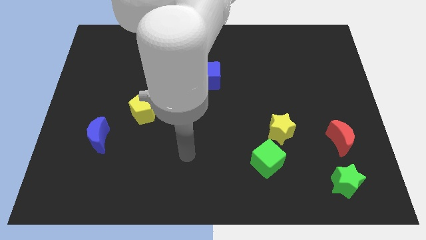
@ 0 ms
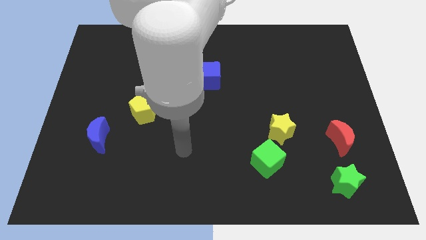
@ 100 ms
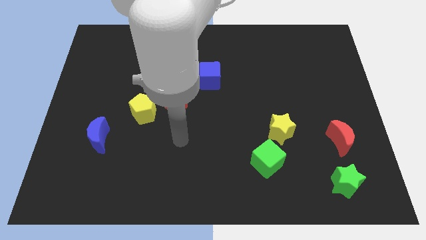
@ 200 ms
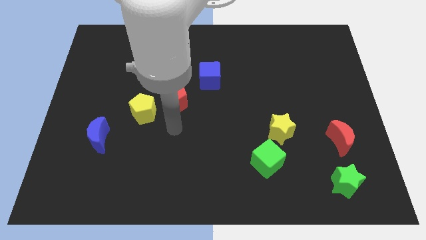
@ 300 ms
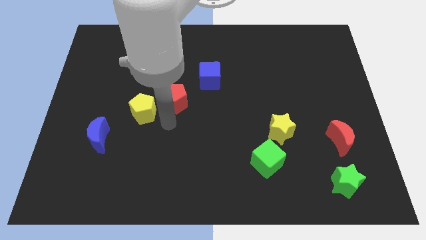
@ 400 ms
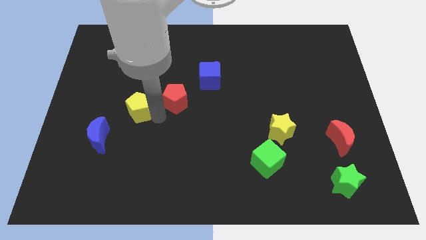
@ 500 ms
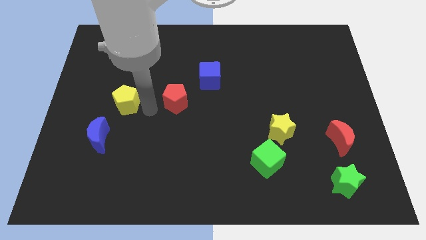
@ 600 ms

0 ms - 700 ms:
separate the red pentagon from the yellow pentagon

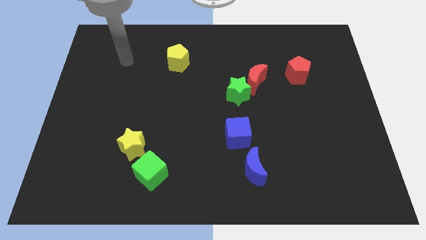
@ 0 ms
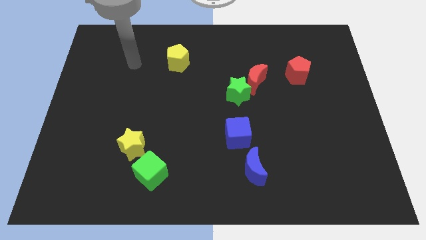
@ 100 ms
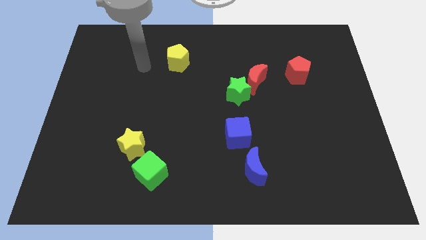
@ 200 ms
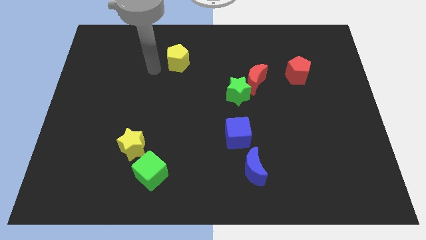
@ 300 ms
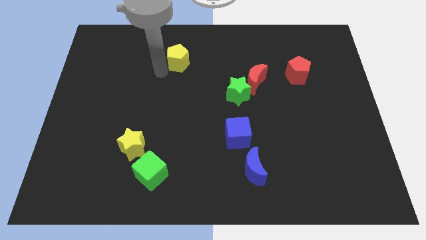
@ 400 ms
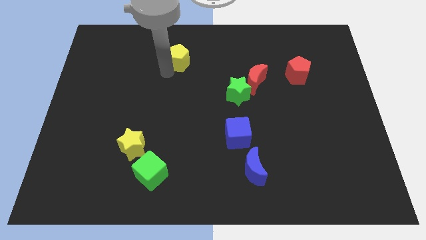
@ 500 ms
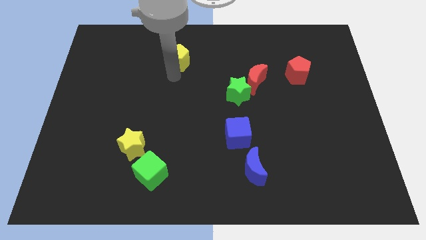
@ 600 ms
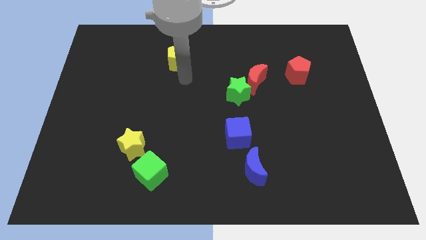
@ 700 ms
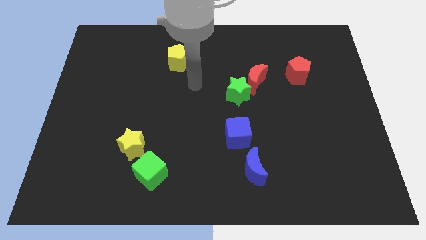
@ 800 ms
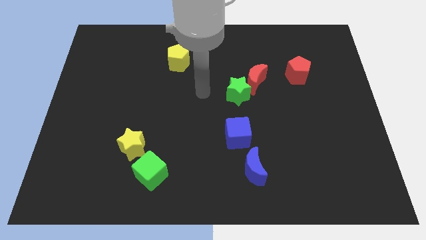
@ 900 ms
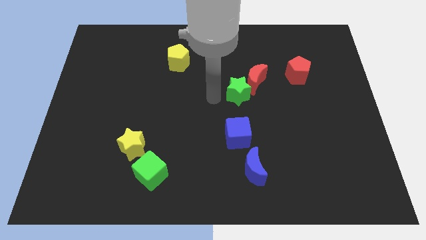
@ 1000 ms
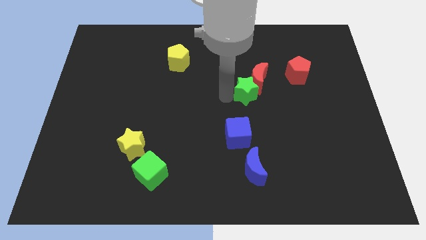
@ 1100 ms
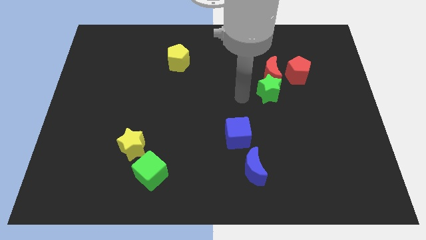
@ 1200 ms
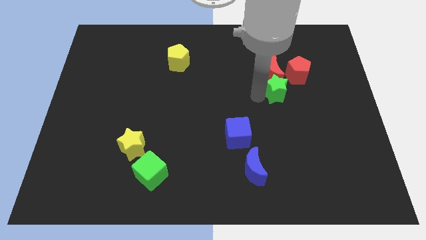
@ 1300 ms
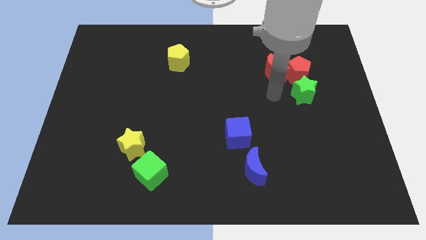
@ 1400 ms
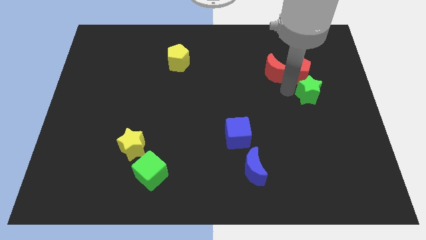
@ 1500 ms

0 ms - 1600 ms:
pull the red moon apart from the green star

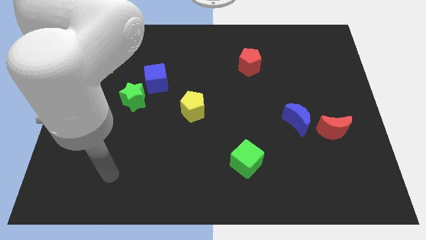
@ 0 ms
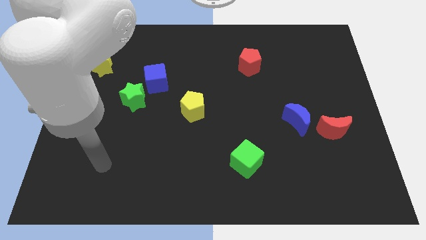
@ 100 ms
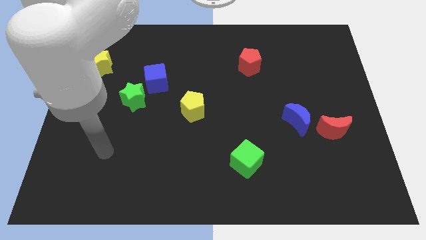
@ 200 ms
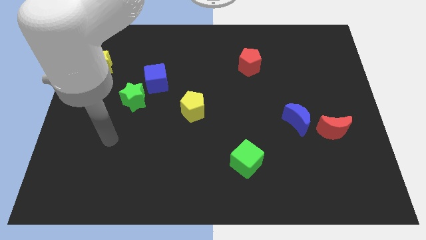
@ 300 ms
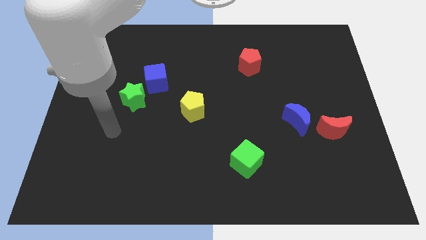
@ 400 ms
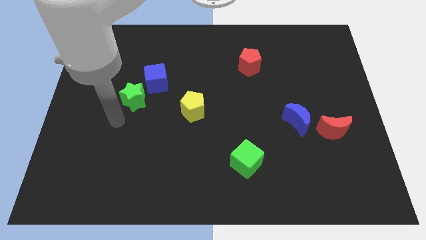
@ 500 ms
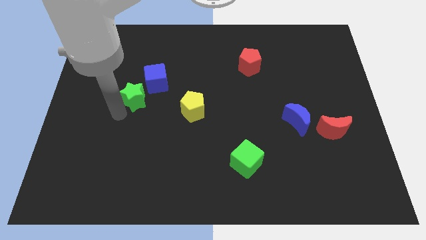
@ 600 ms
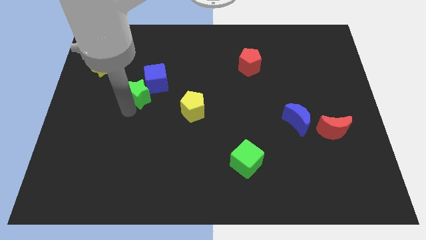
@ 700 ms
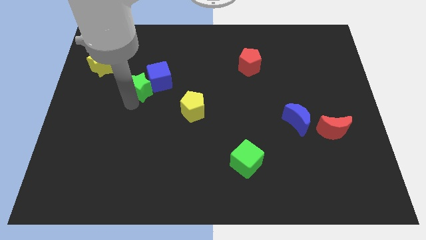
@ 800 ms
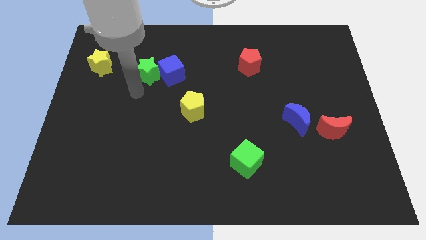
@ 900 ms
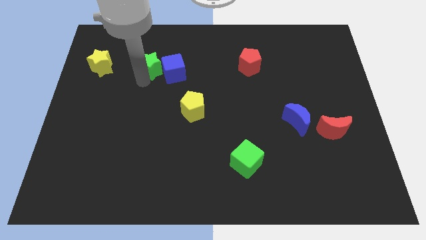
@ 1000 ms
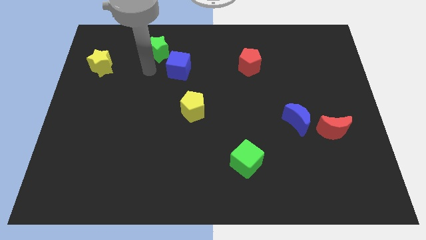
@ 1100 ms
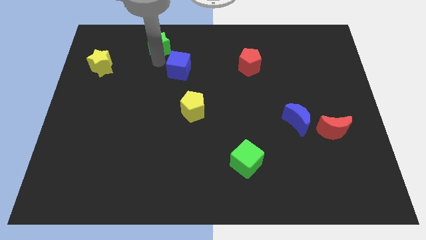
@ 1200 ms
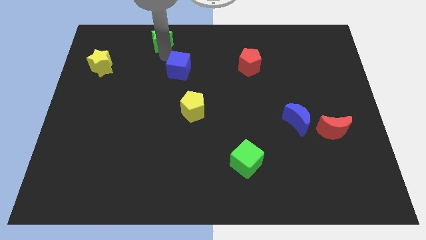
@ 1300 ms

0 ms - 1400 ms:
pull the blue cube apart from the green star

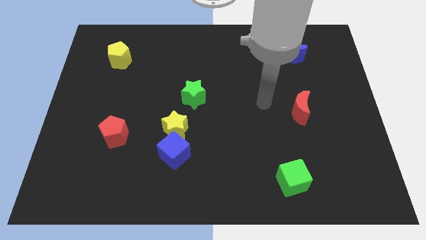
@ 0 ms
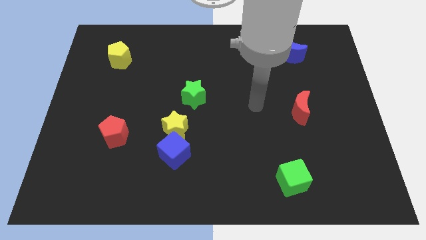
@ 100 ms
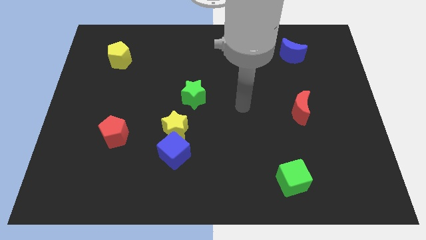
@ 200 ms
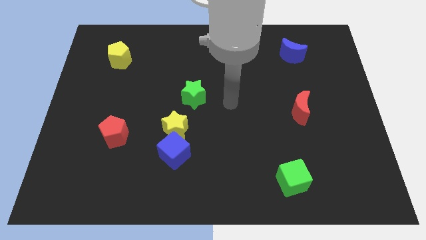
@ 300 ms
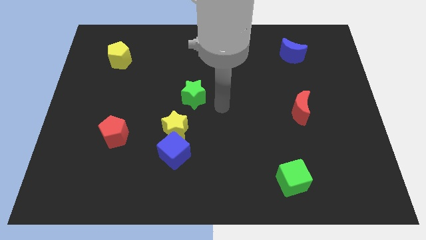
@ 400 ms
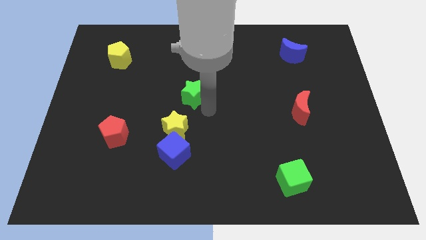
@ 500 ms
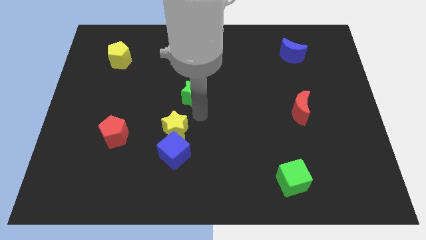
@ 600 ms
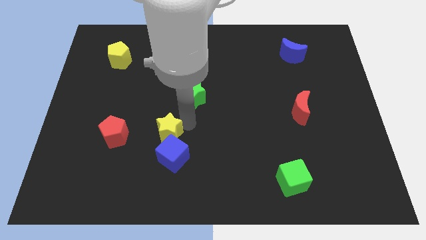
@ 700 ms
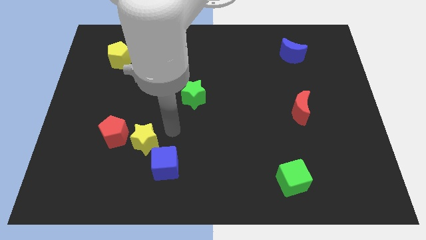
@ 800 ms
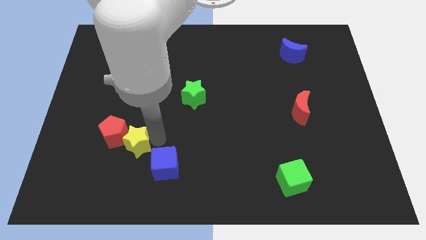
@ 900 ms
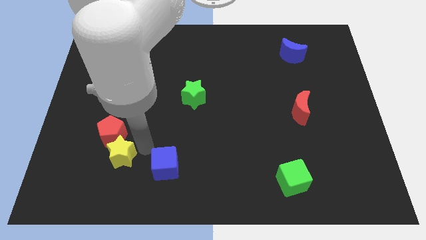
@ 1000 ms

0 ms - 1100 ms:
separate the blue cube from the yellow star

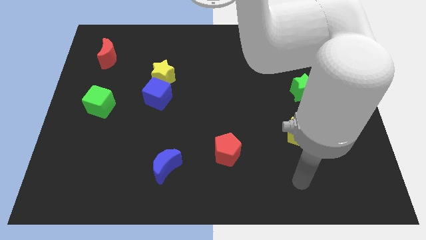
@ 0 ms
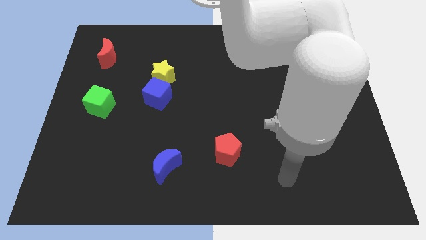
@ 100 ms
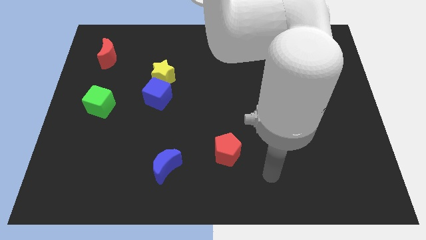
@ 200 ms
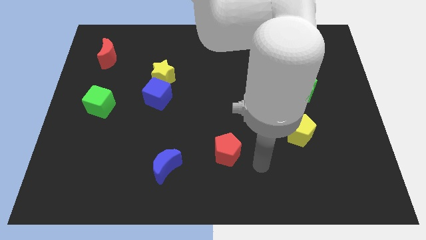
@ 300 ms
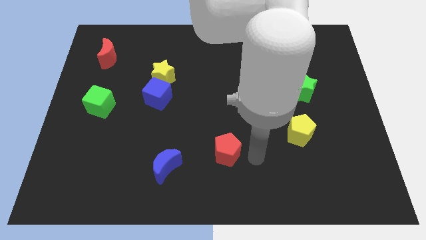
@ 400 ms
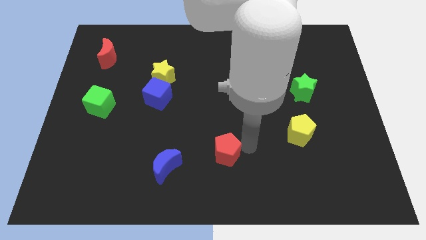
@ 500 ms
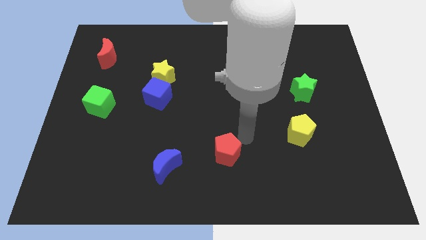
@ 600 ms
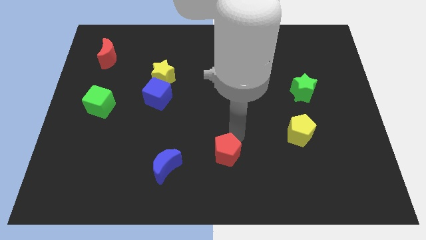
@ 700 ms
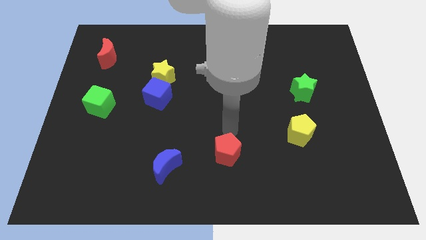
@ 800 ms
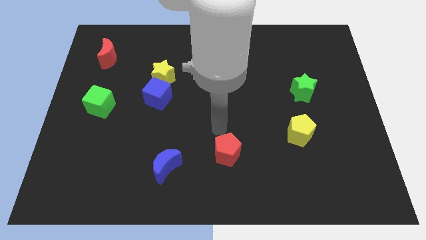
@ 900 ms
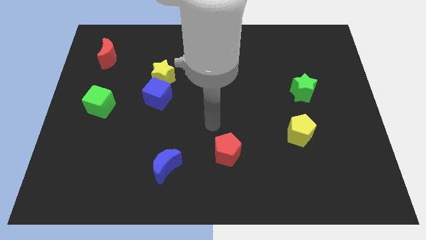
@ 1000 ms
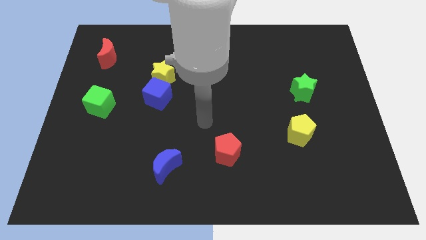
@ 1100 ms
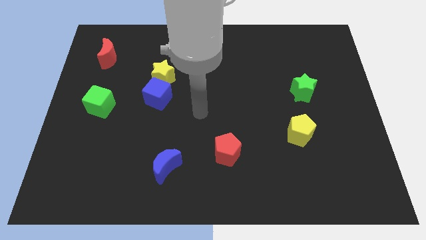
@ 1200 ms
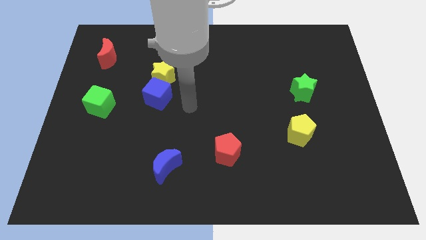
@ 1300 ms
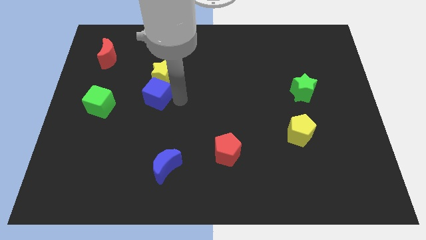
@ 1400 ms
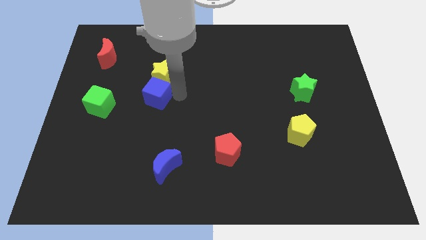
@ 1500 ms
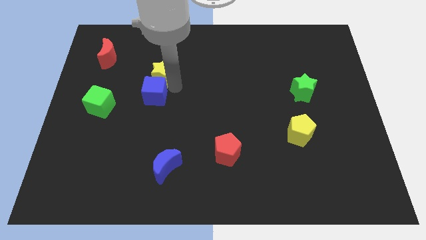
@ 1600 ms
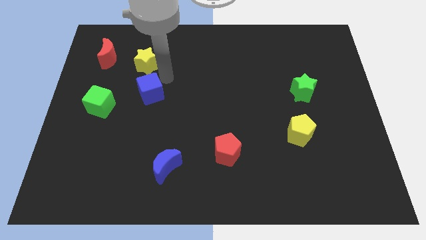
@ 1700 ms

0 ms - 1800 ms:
pull the blue cube apart from the yellow star

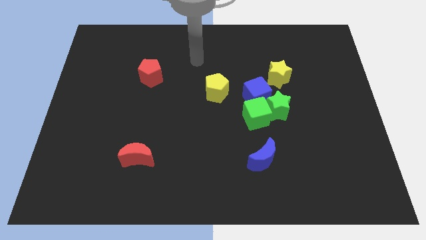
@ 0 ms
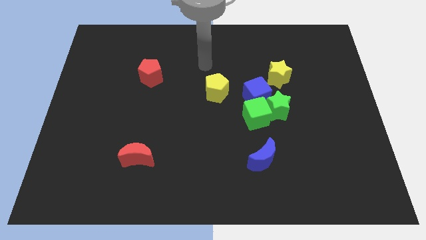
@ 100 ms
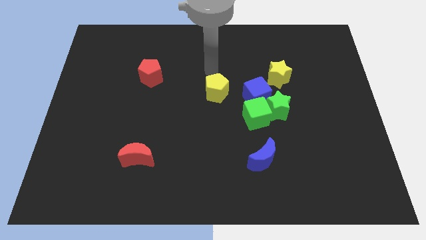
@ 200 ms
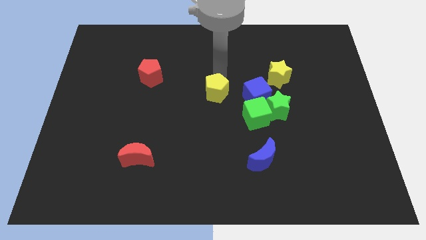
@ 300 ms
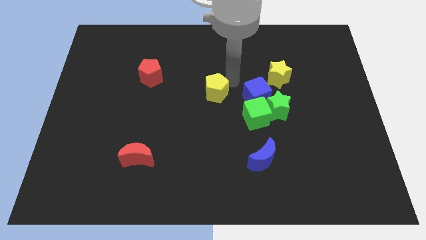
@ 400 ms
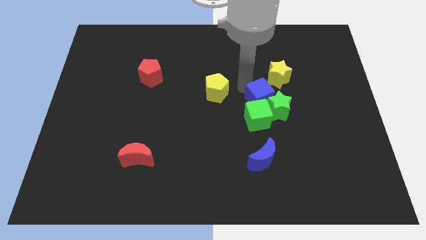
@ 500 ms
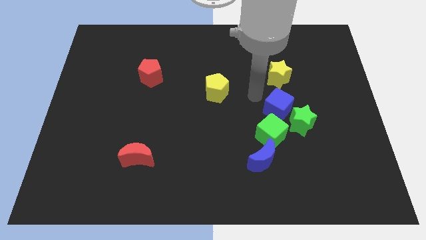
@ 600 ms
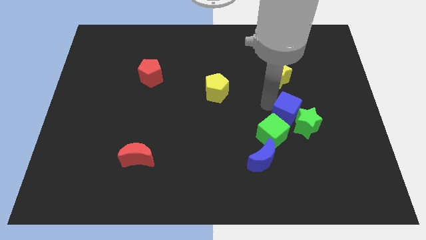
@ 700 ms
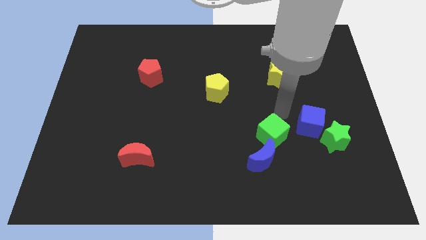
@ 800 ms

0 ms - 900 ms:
separate the green cube from the green star and blue cube

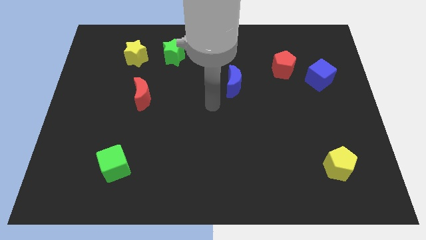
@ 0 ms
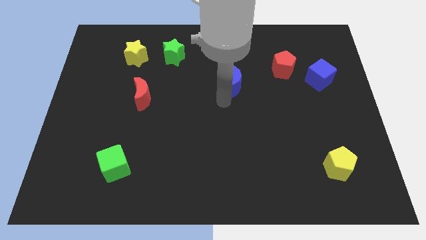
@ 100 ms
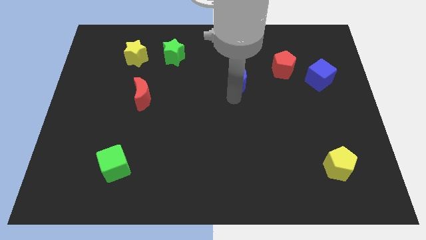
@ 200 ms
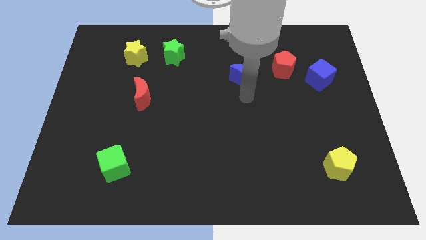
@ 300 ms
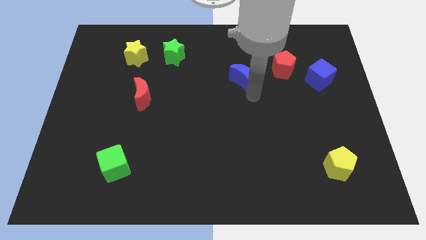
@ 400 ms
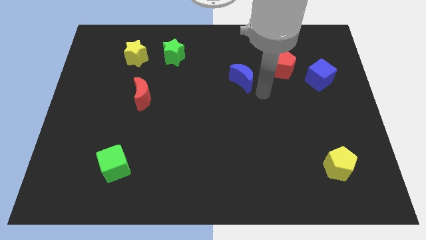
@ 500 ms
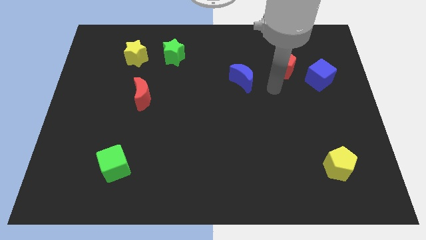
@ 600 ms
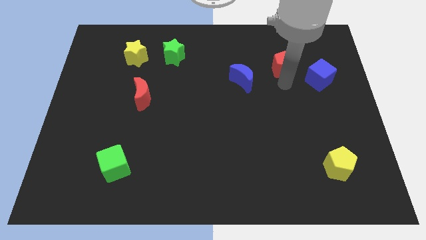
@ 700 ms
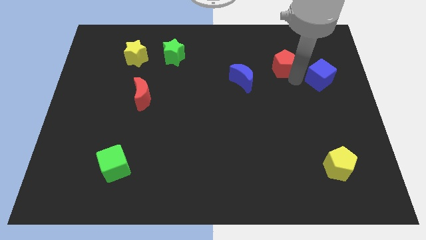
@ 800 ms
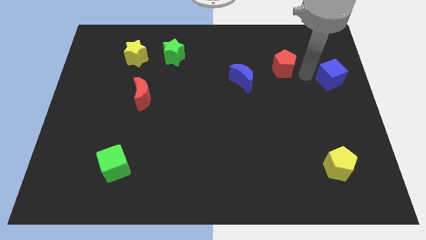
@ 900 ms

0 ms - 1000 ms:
separate the red pentagon from the blue cube

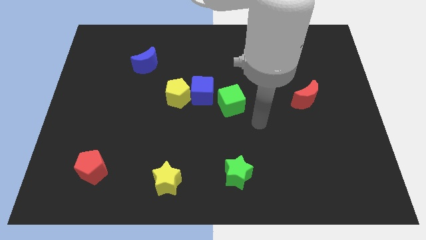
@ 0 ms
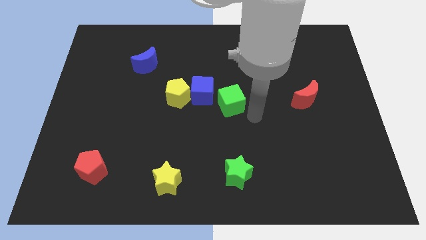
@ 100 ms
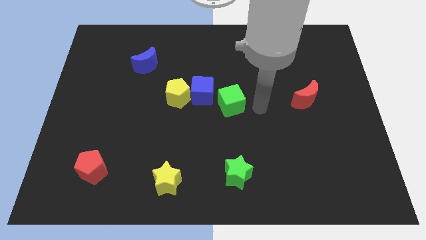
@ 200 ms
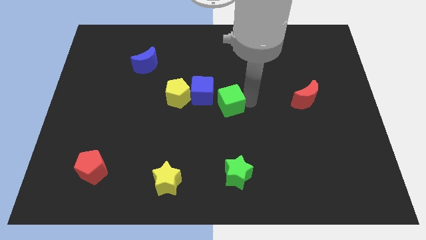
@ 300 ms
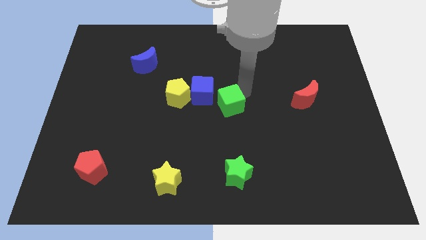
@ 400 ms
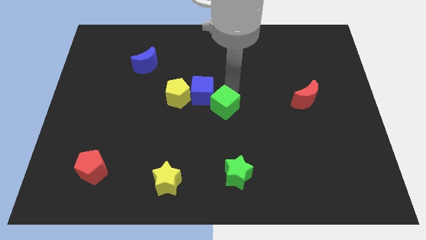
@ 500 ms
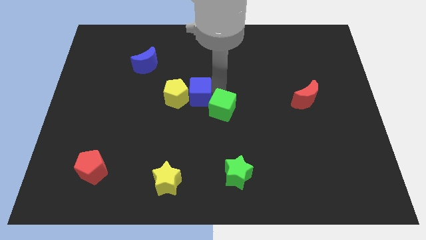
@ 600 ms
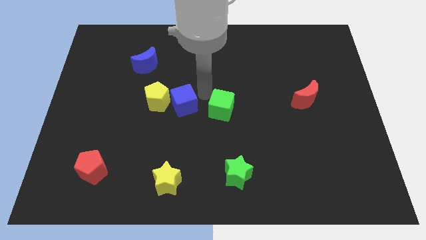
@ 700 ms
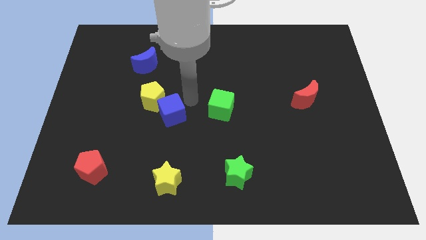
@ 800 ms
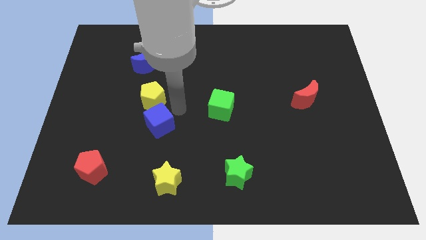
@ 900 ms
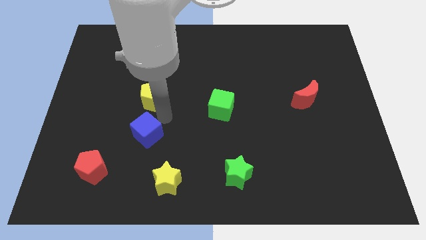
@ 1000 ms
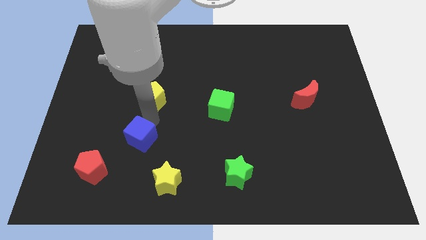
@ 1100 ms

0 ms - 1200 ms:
move the yellow pentagon away from the blue cube
